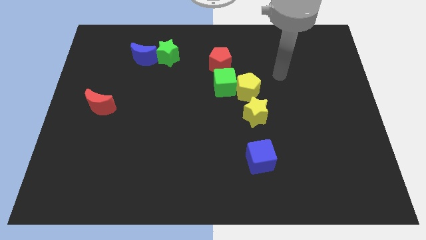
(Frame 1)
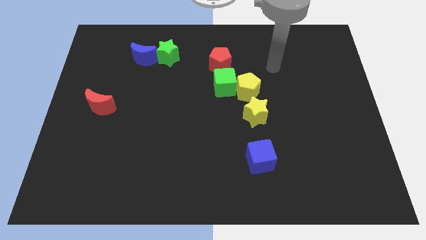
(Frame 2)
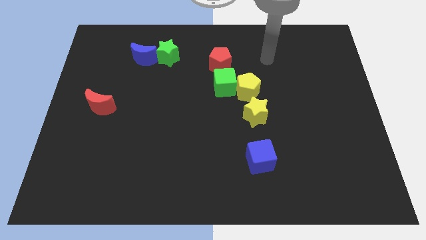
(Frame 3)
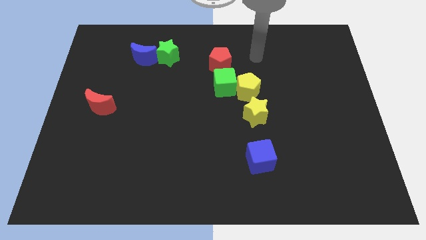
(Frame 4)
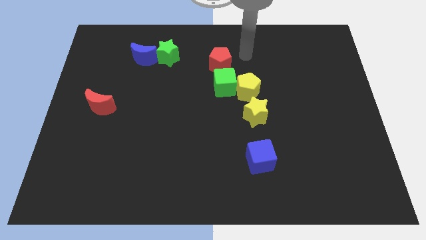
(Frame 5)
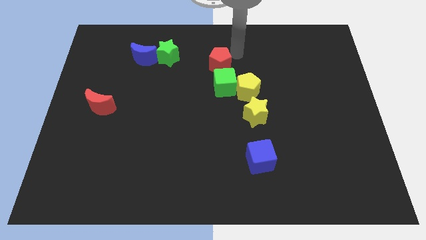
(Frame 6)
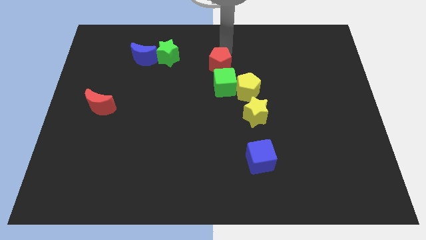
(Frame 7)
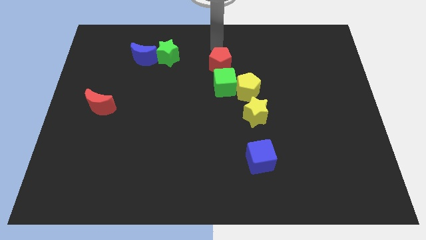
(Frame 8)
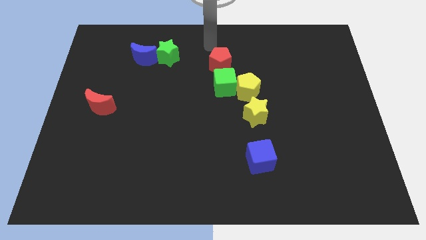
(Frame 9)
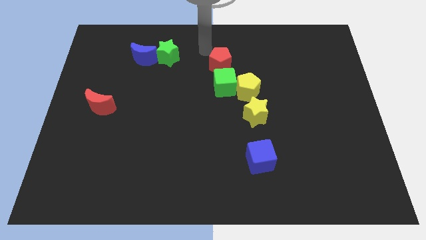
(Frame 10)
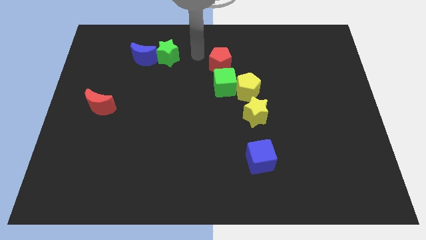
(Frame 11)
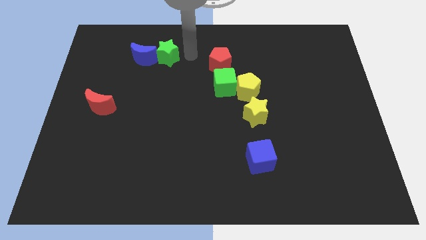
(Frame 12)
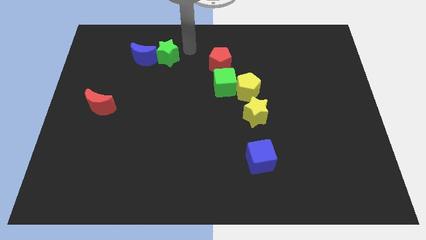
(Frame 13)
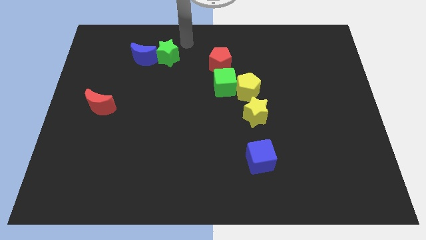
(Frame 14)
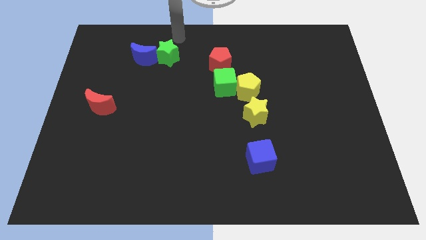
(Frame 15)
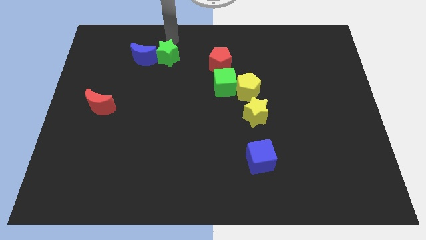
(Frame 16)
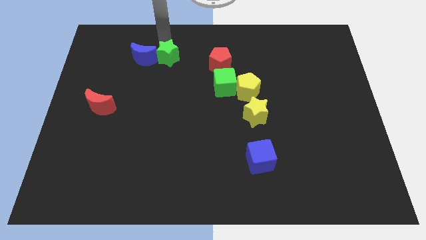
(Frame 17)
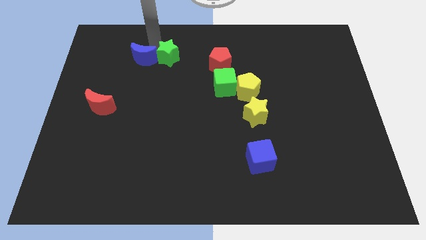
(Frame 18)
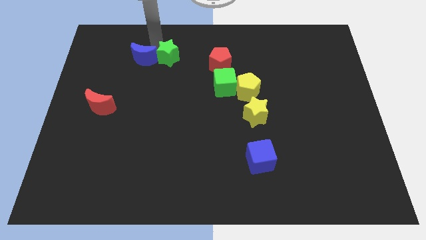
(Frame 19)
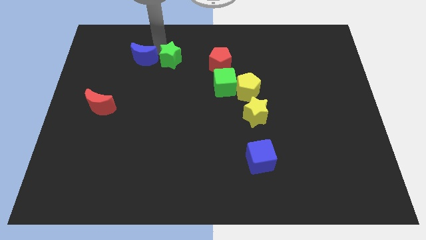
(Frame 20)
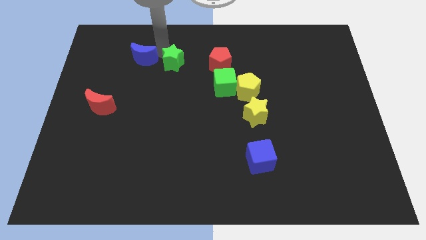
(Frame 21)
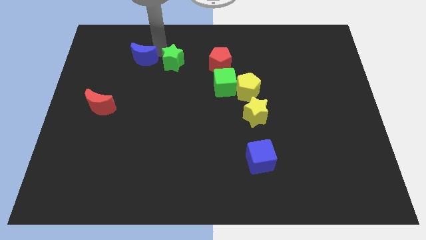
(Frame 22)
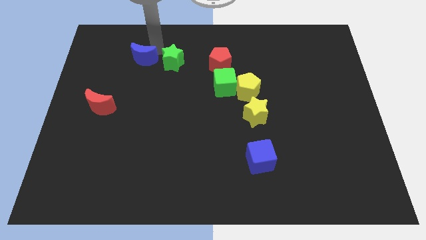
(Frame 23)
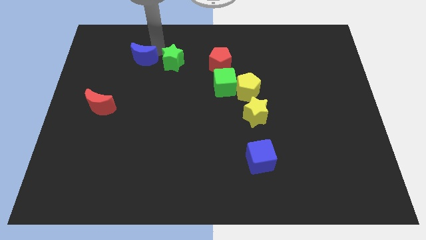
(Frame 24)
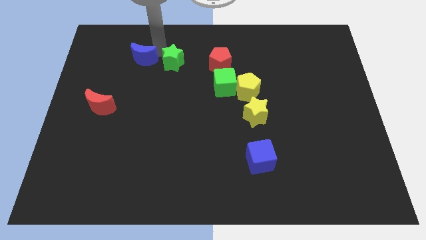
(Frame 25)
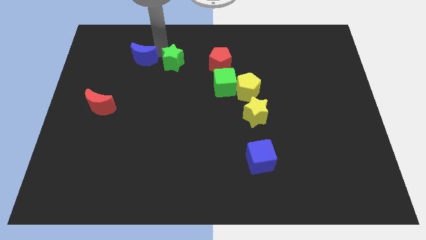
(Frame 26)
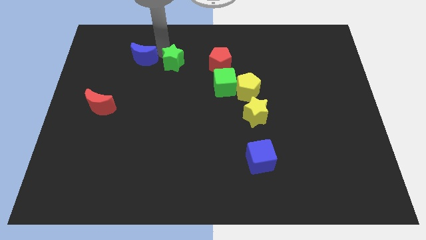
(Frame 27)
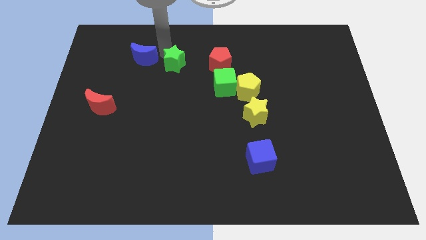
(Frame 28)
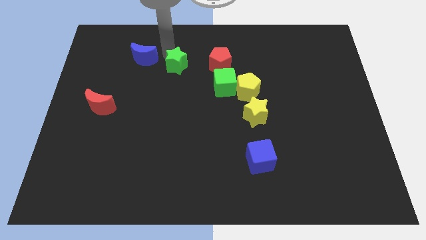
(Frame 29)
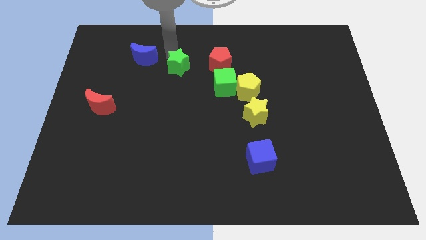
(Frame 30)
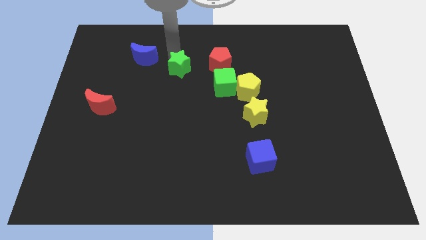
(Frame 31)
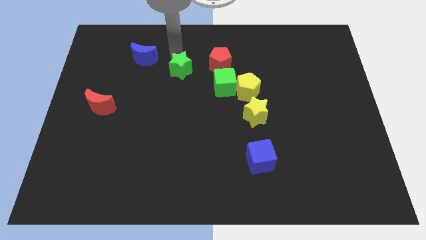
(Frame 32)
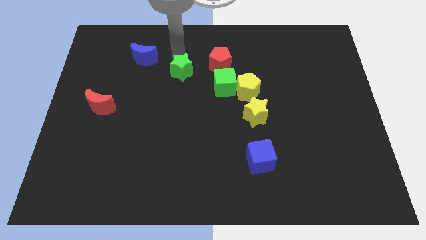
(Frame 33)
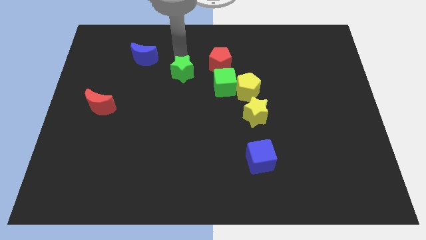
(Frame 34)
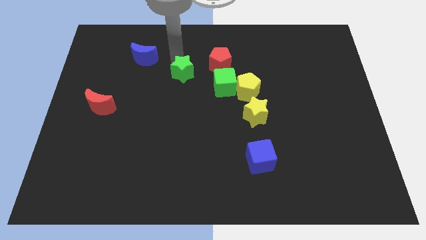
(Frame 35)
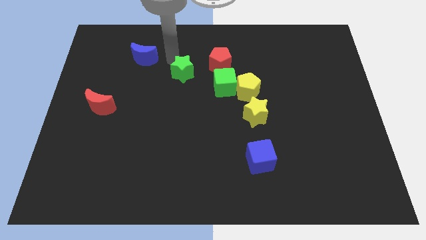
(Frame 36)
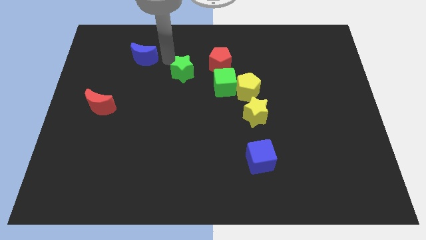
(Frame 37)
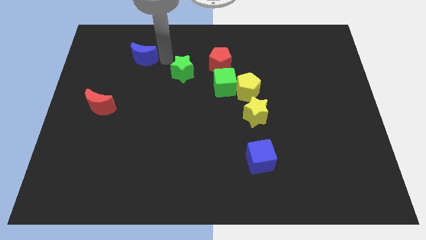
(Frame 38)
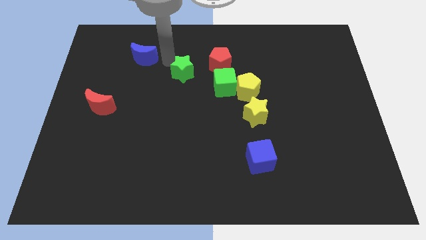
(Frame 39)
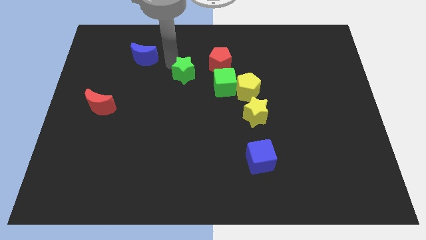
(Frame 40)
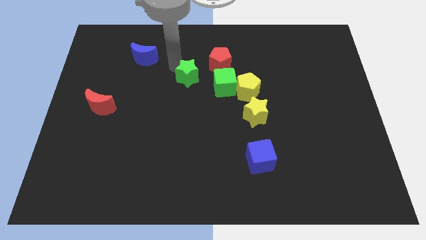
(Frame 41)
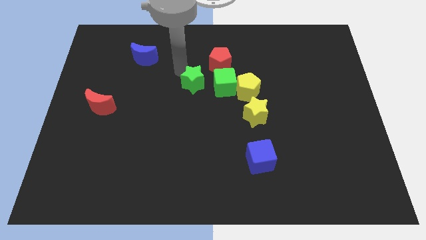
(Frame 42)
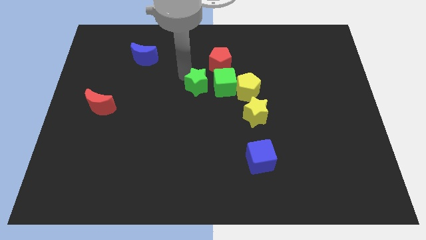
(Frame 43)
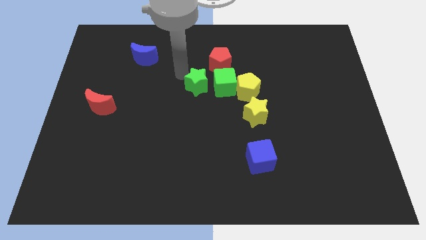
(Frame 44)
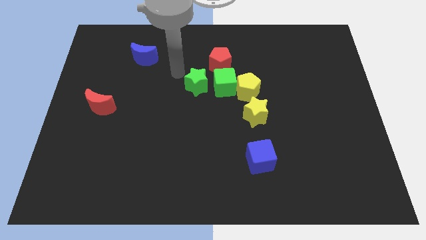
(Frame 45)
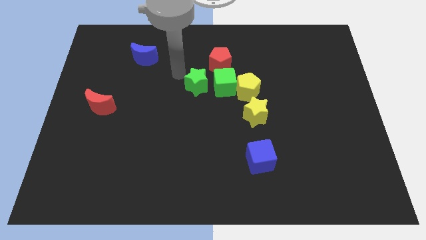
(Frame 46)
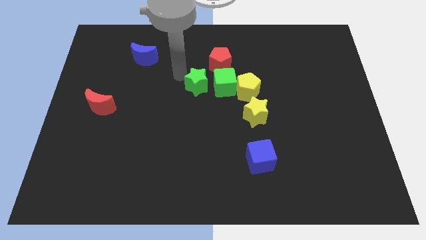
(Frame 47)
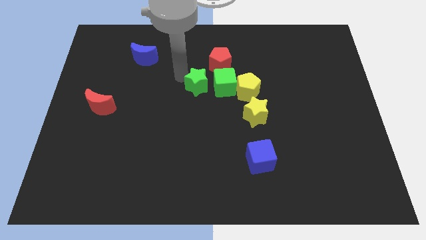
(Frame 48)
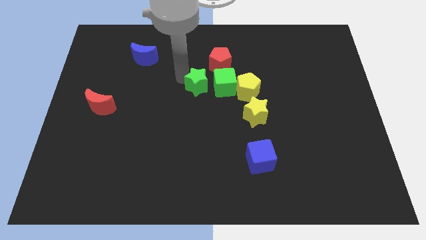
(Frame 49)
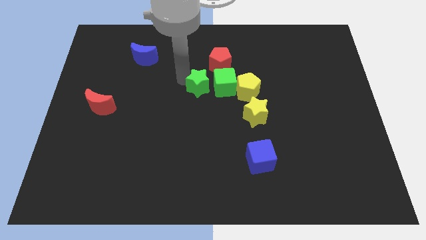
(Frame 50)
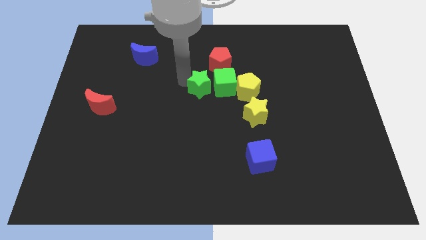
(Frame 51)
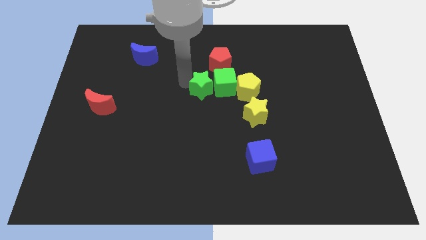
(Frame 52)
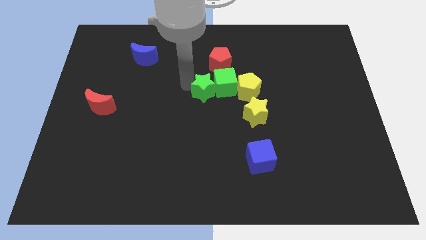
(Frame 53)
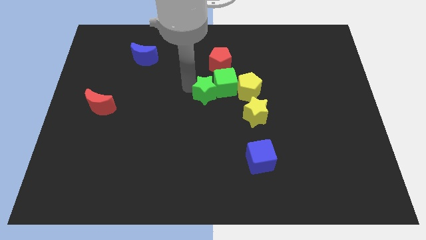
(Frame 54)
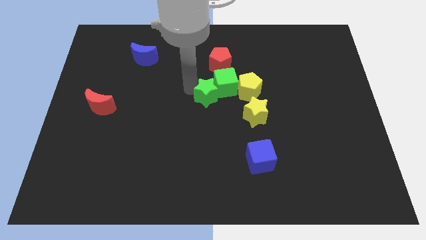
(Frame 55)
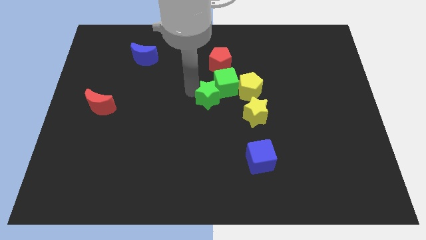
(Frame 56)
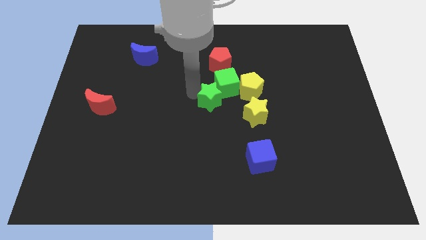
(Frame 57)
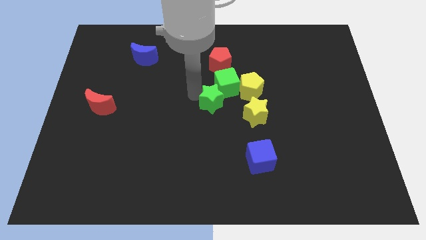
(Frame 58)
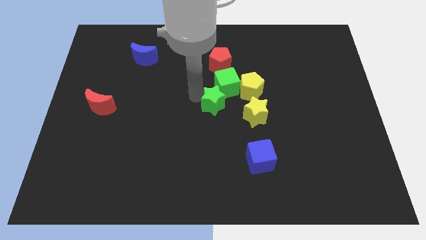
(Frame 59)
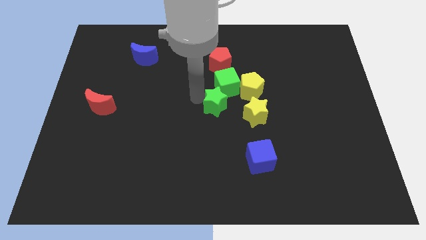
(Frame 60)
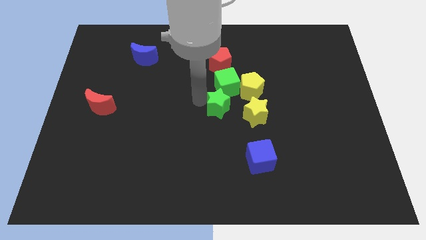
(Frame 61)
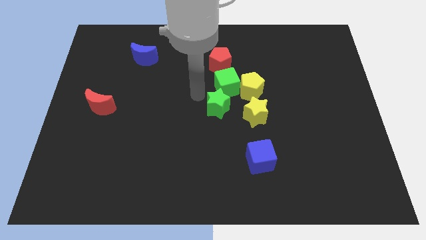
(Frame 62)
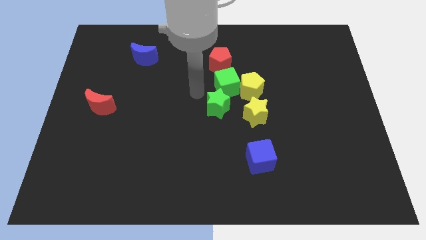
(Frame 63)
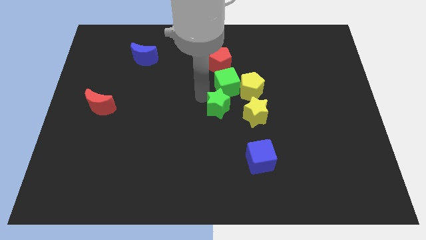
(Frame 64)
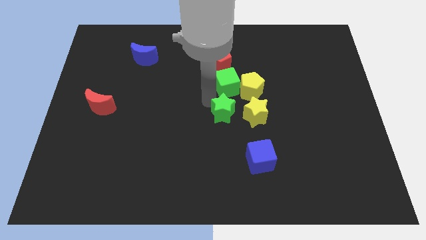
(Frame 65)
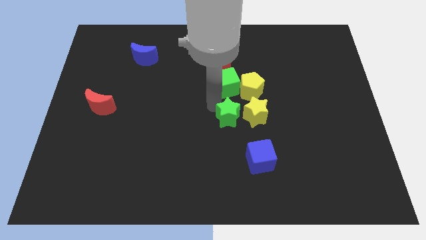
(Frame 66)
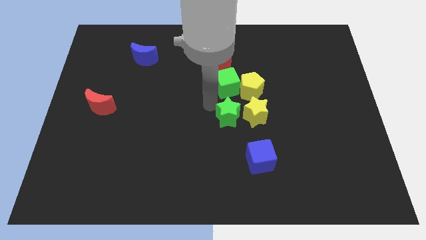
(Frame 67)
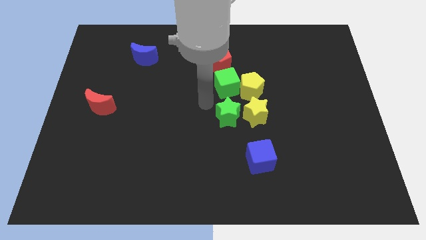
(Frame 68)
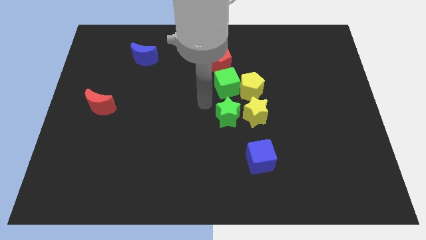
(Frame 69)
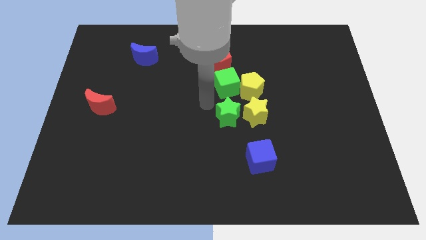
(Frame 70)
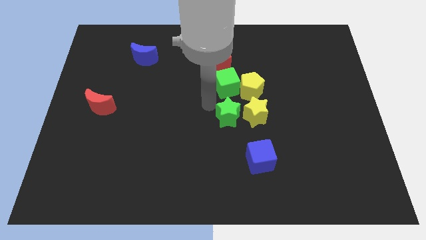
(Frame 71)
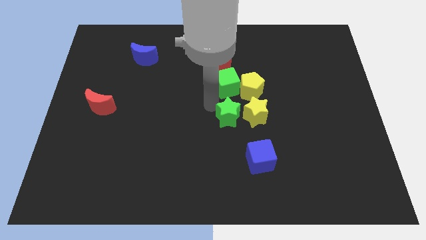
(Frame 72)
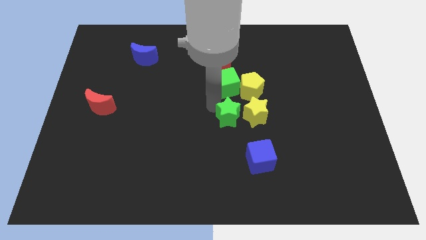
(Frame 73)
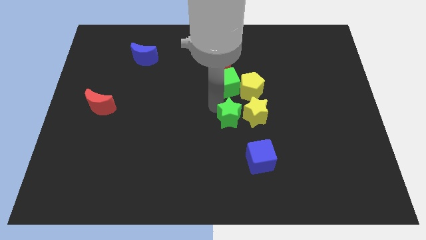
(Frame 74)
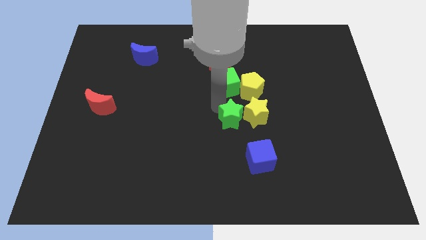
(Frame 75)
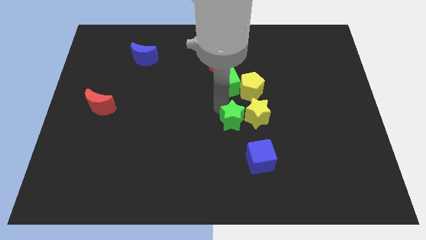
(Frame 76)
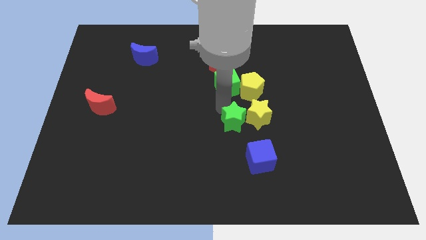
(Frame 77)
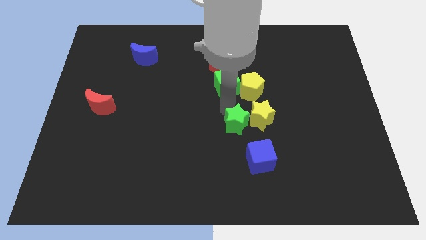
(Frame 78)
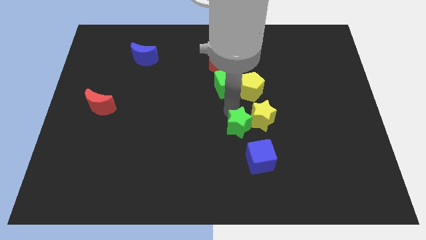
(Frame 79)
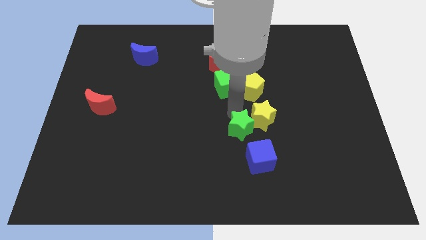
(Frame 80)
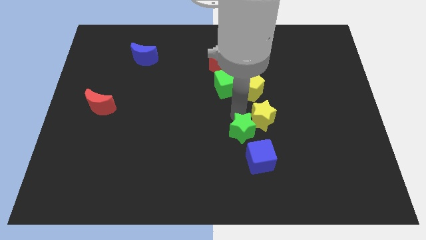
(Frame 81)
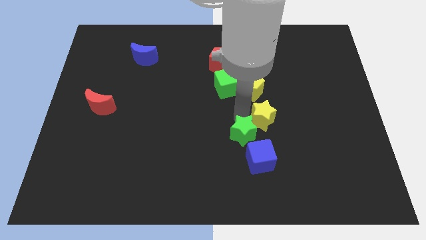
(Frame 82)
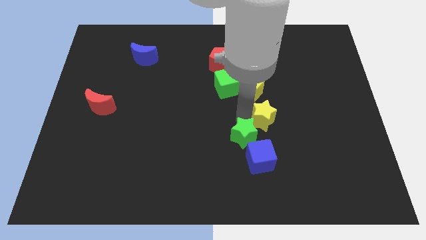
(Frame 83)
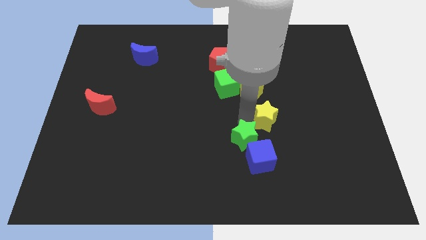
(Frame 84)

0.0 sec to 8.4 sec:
move the green star to the blue cube
